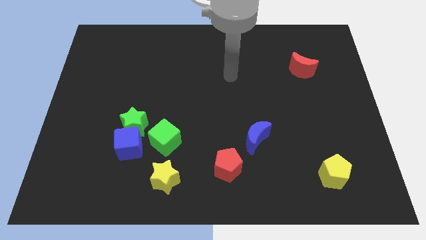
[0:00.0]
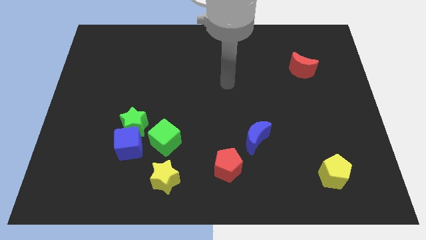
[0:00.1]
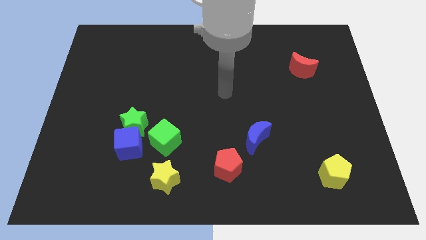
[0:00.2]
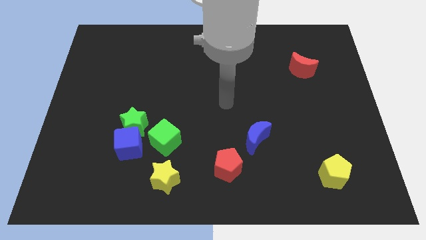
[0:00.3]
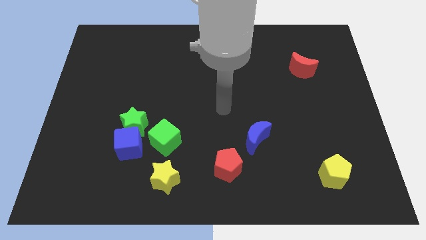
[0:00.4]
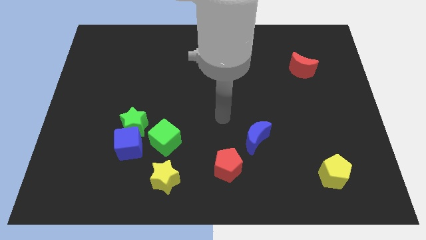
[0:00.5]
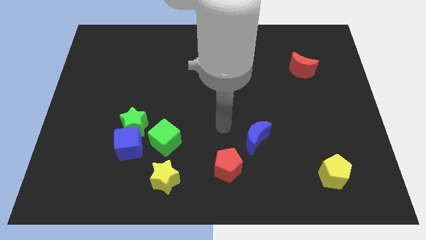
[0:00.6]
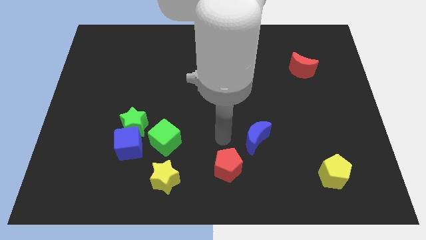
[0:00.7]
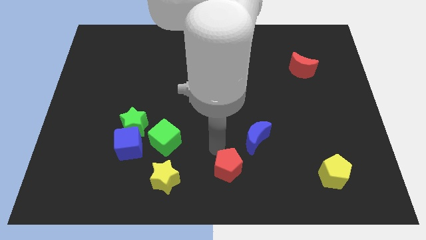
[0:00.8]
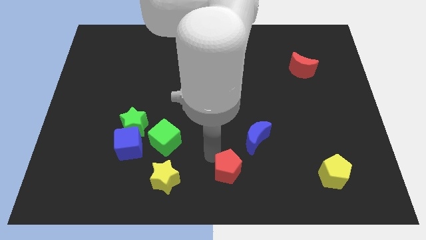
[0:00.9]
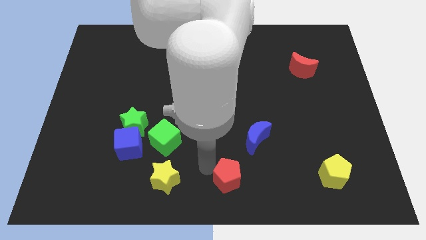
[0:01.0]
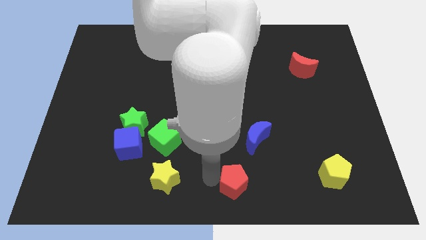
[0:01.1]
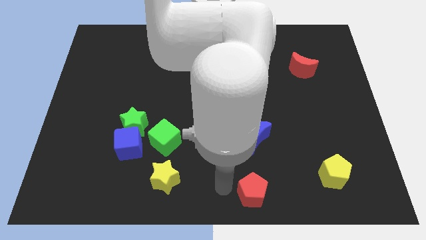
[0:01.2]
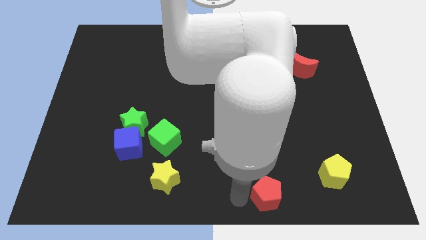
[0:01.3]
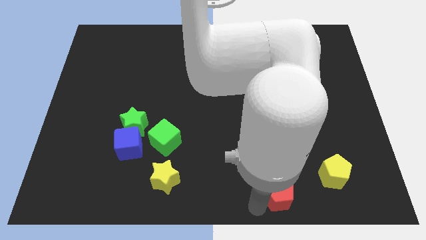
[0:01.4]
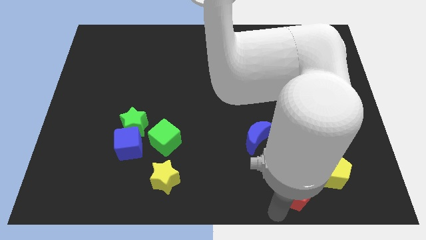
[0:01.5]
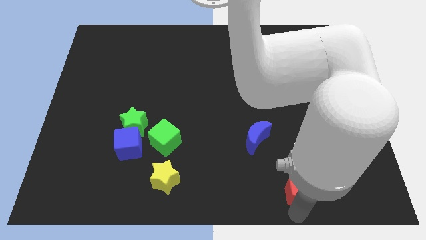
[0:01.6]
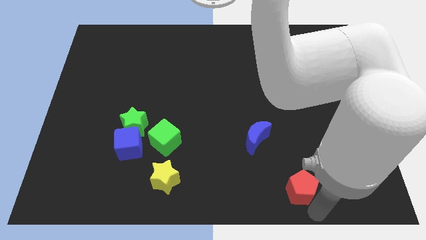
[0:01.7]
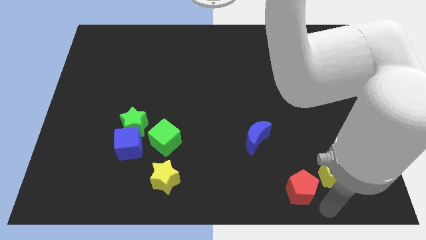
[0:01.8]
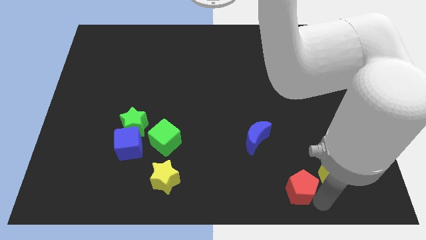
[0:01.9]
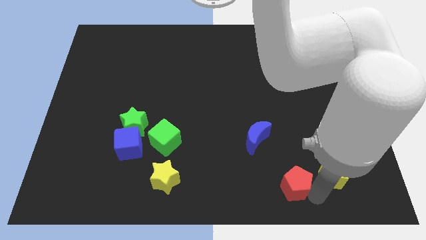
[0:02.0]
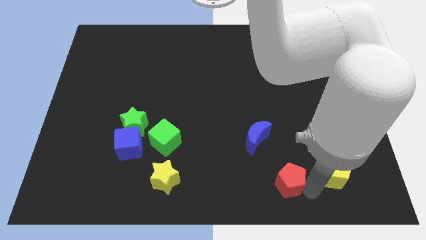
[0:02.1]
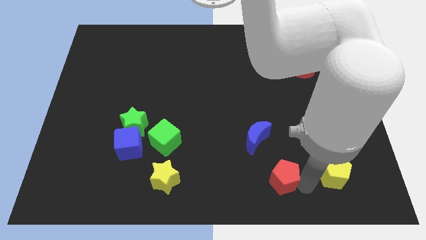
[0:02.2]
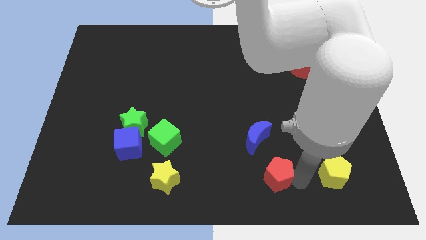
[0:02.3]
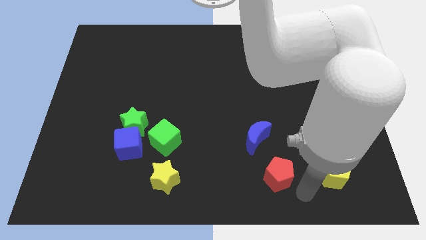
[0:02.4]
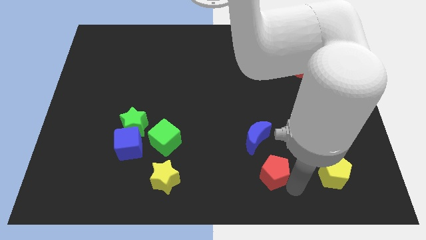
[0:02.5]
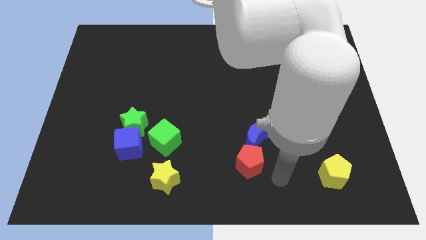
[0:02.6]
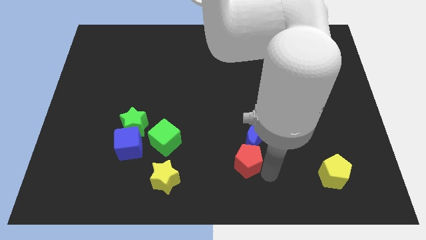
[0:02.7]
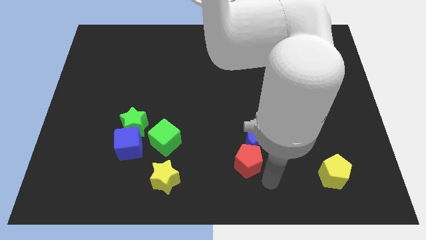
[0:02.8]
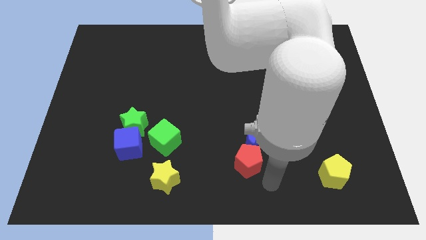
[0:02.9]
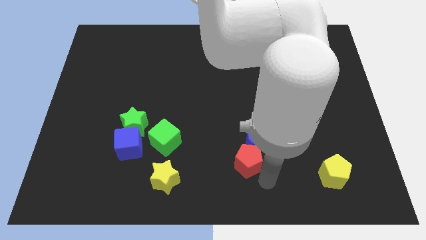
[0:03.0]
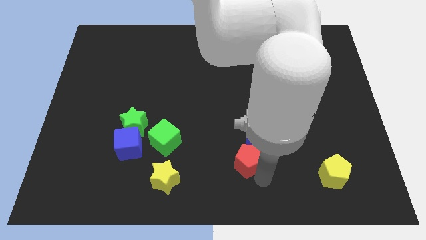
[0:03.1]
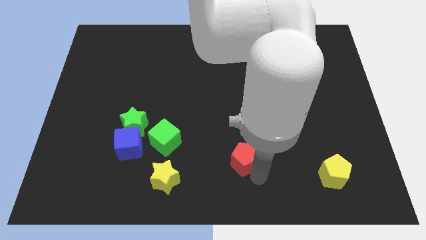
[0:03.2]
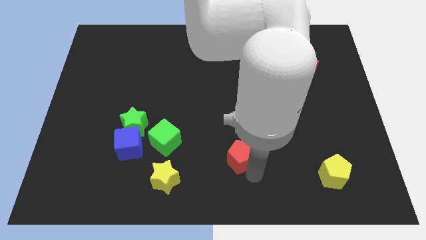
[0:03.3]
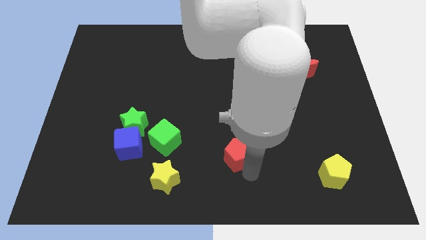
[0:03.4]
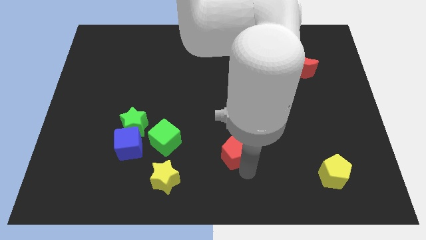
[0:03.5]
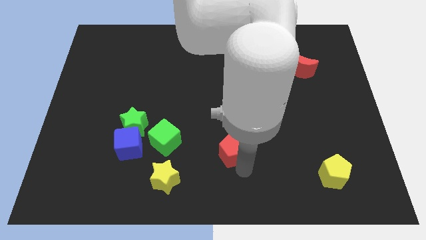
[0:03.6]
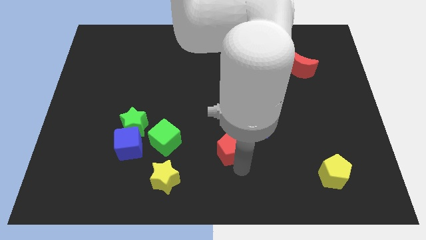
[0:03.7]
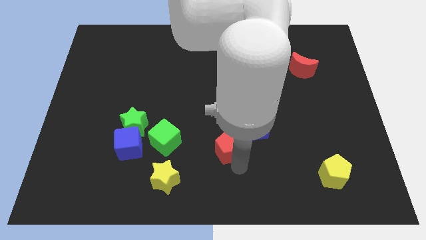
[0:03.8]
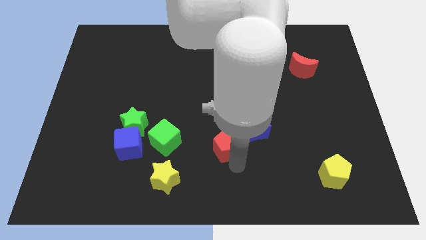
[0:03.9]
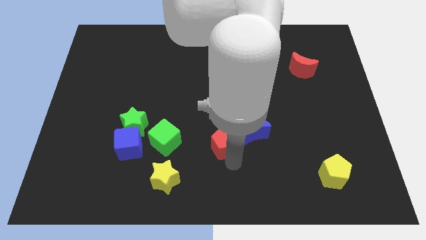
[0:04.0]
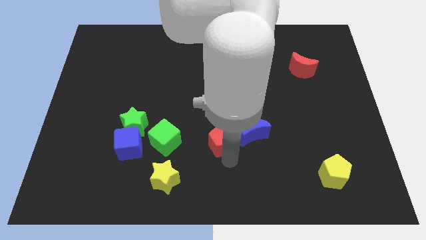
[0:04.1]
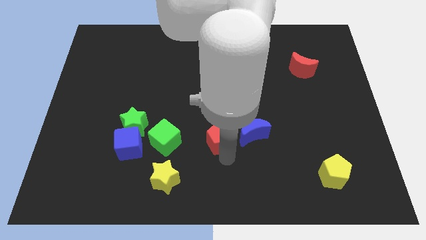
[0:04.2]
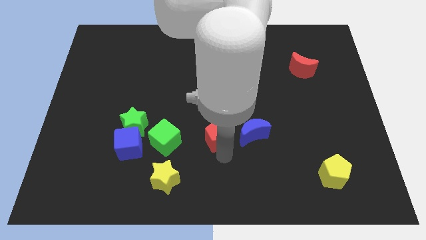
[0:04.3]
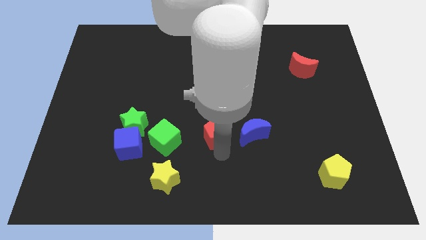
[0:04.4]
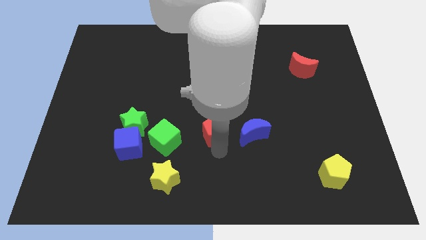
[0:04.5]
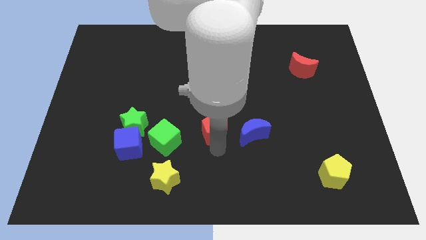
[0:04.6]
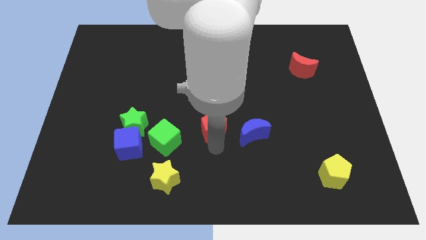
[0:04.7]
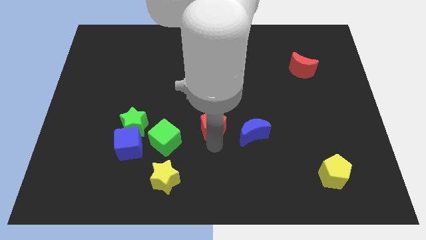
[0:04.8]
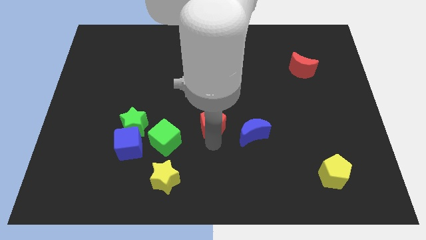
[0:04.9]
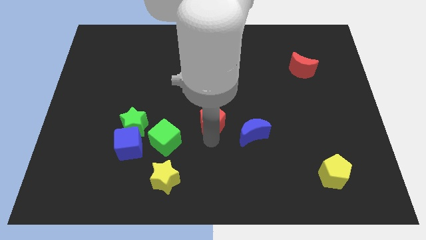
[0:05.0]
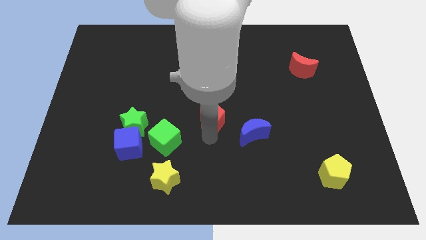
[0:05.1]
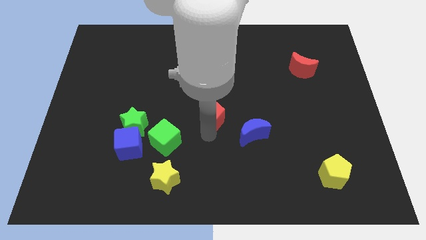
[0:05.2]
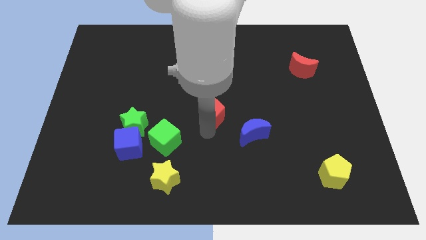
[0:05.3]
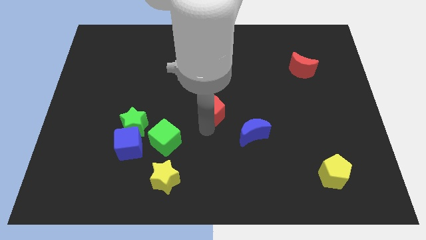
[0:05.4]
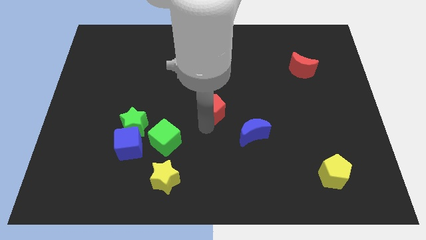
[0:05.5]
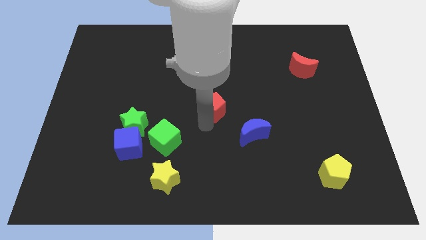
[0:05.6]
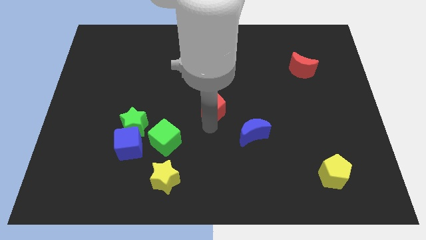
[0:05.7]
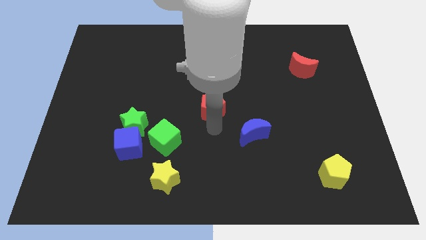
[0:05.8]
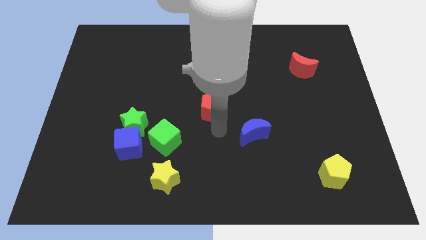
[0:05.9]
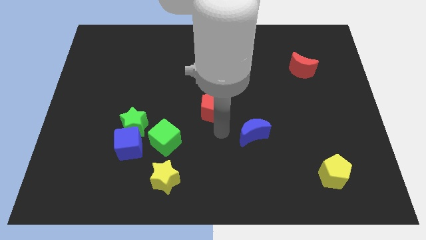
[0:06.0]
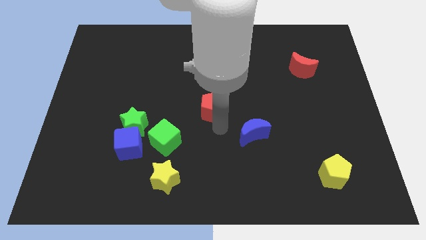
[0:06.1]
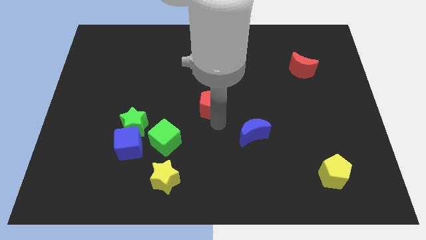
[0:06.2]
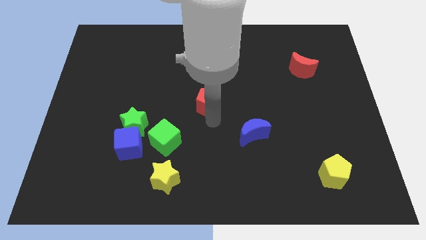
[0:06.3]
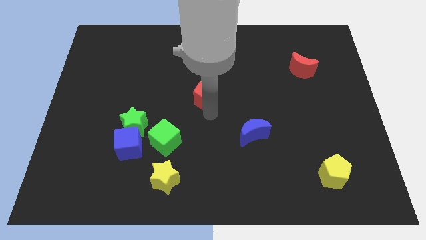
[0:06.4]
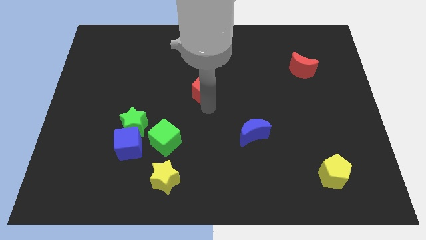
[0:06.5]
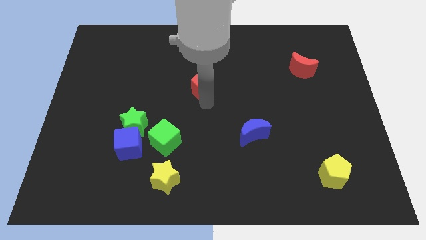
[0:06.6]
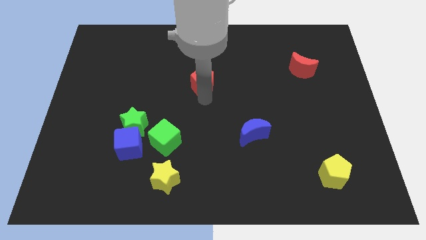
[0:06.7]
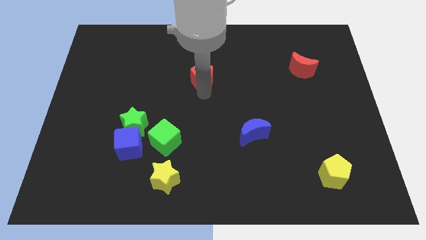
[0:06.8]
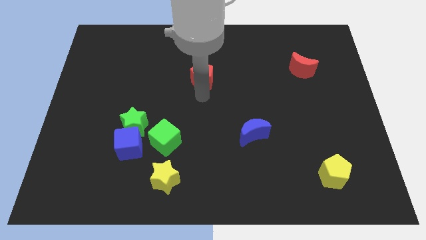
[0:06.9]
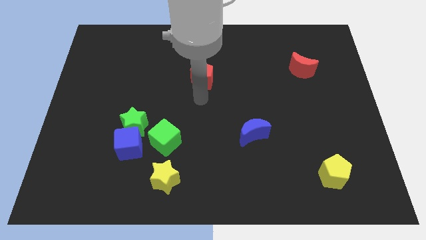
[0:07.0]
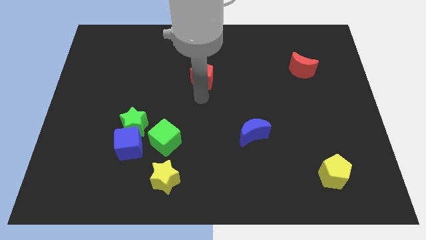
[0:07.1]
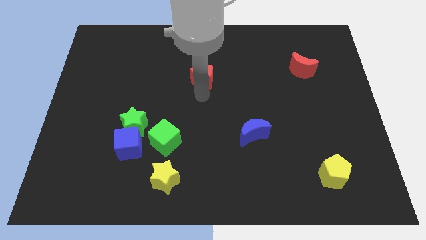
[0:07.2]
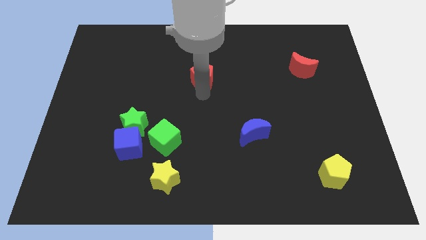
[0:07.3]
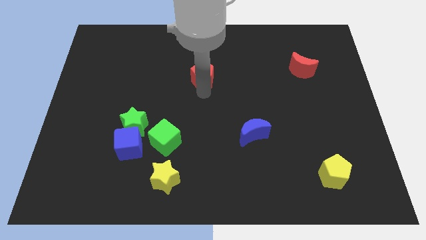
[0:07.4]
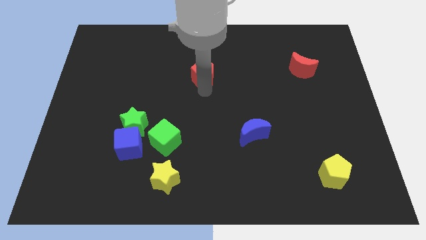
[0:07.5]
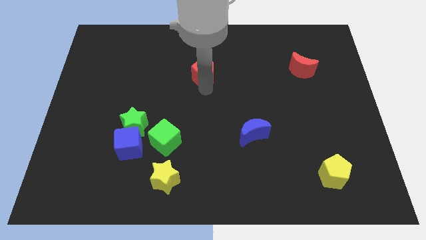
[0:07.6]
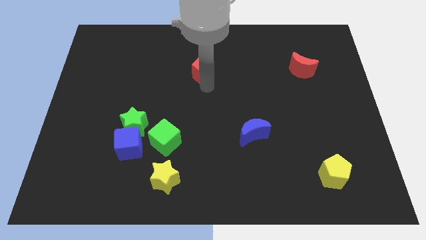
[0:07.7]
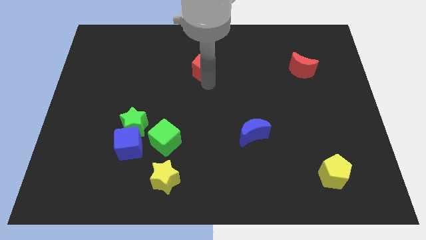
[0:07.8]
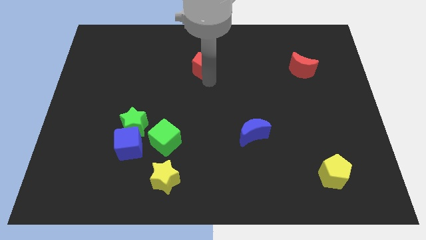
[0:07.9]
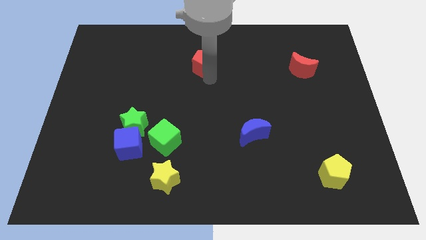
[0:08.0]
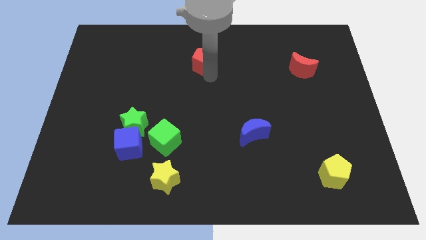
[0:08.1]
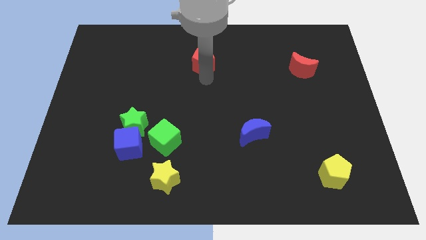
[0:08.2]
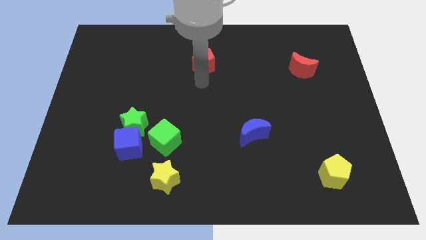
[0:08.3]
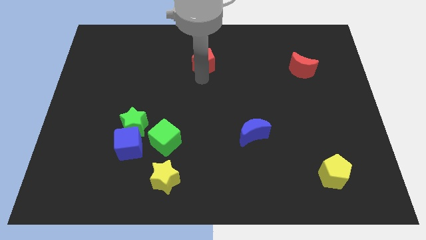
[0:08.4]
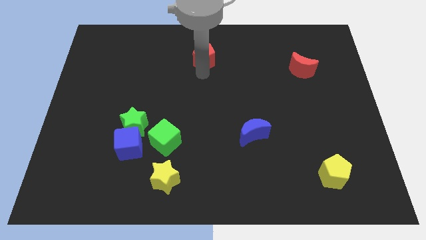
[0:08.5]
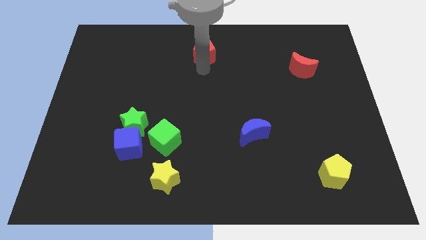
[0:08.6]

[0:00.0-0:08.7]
put the red pentagon to the towards your base
